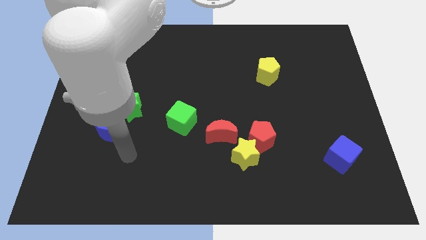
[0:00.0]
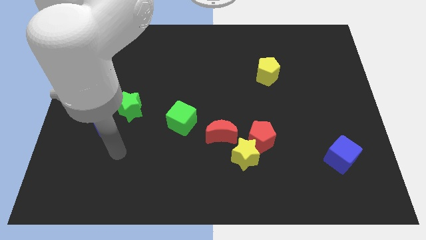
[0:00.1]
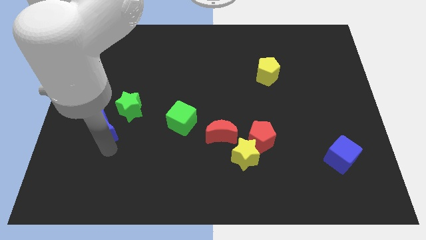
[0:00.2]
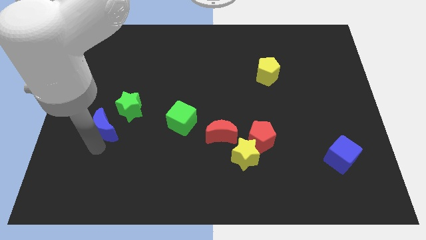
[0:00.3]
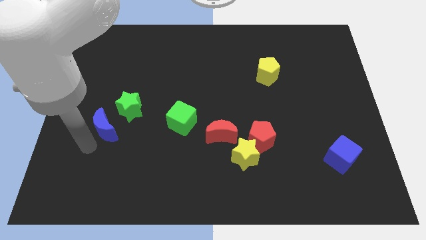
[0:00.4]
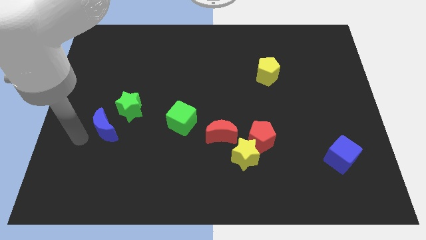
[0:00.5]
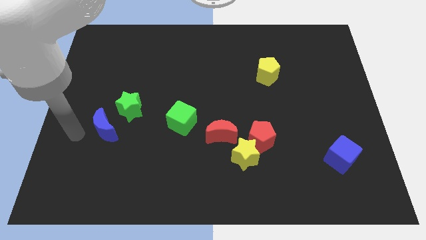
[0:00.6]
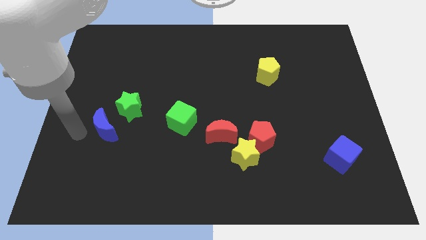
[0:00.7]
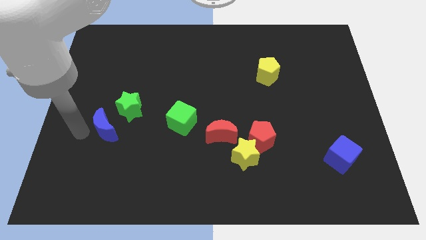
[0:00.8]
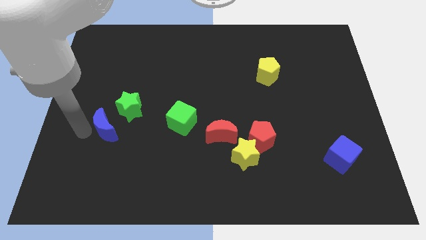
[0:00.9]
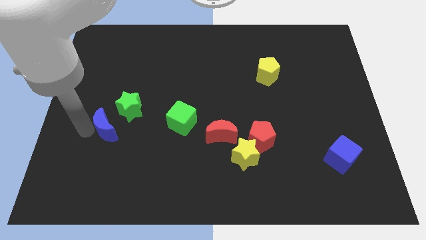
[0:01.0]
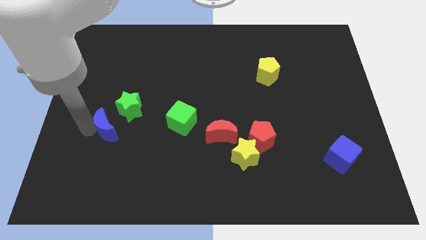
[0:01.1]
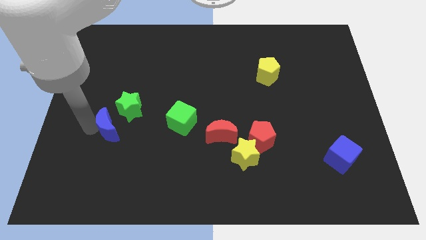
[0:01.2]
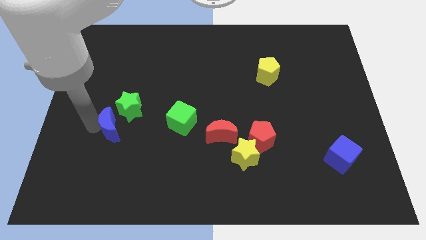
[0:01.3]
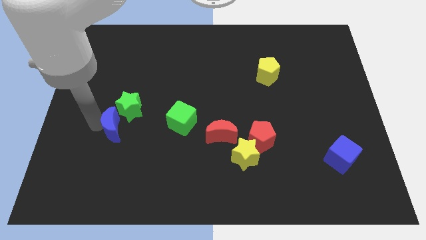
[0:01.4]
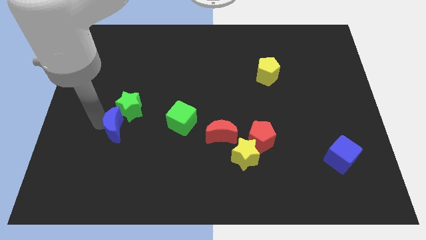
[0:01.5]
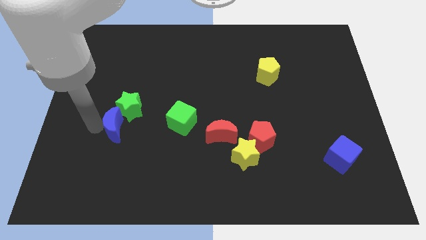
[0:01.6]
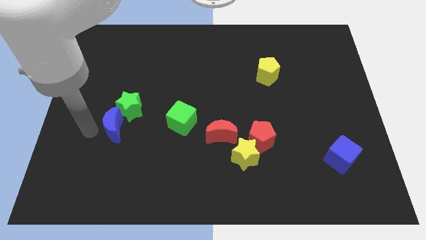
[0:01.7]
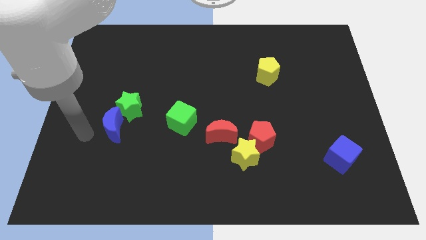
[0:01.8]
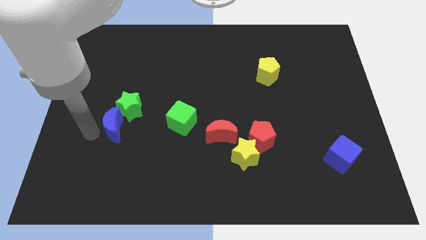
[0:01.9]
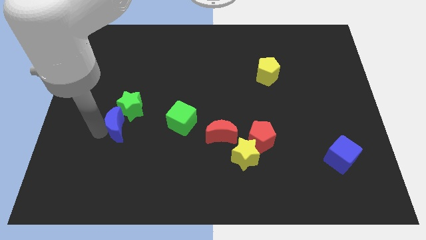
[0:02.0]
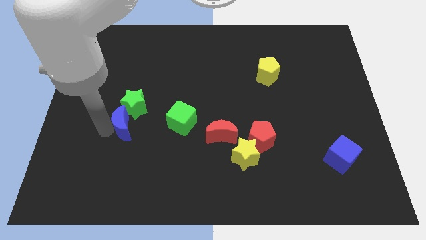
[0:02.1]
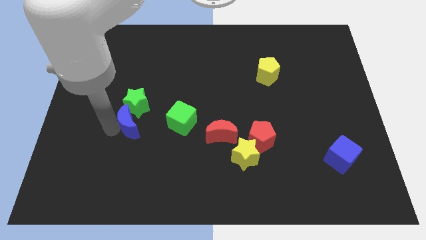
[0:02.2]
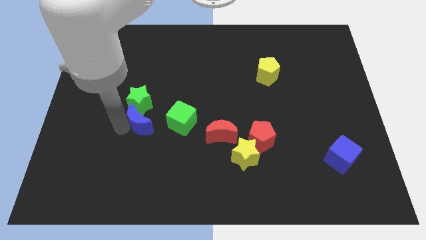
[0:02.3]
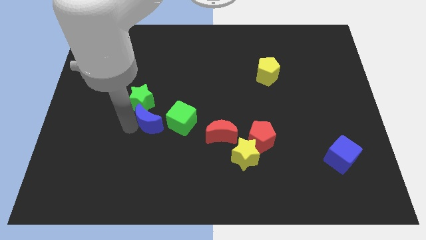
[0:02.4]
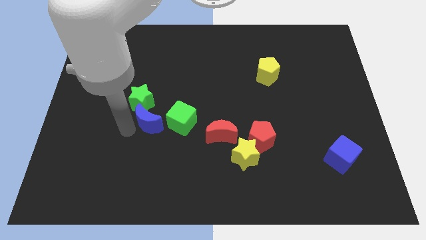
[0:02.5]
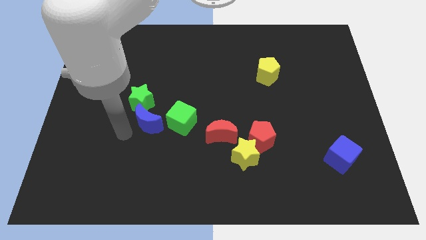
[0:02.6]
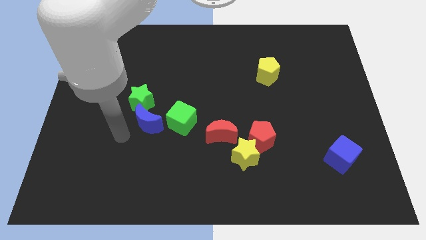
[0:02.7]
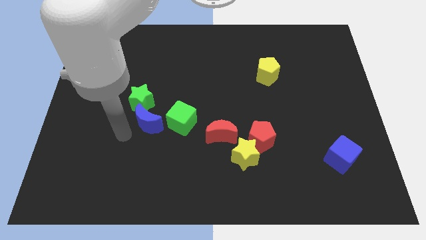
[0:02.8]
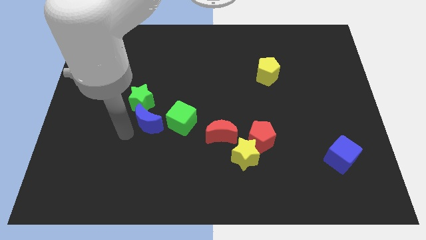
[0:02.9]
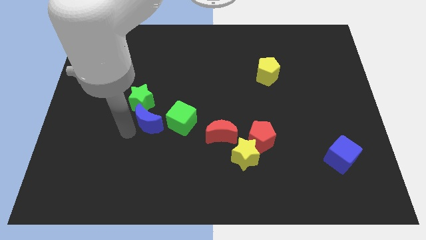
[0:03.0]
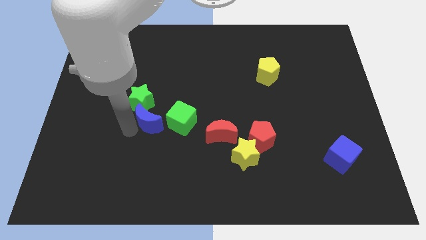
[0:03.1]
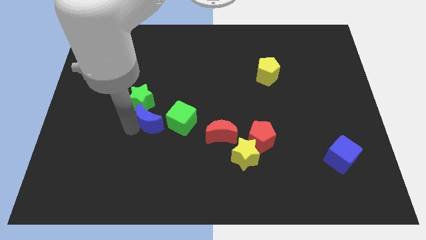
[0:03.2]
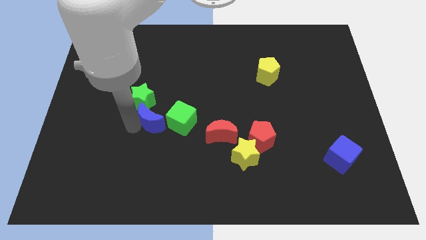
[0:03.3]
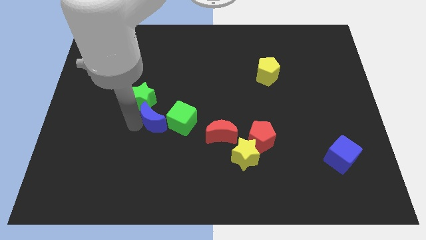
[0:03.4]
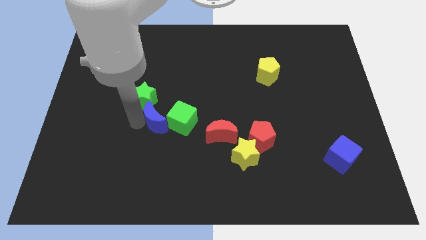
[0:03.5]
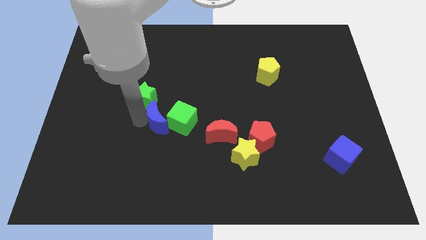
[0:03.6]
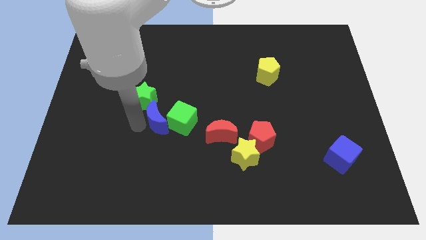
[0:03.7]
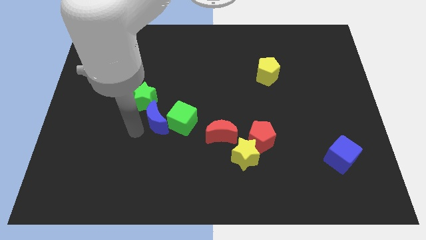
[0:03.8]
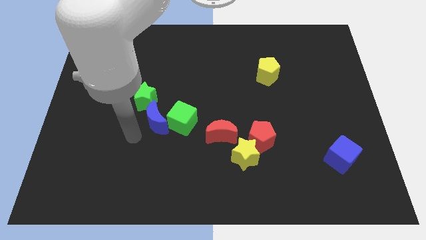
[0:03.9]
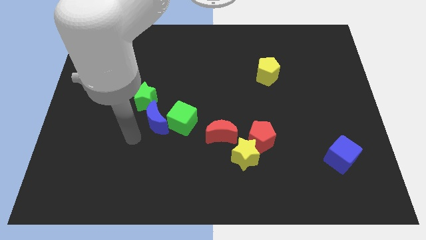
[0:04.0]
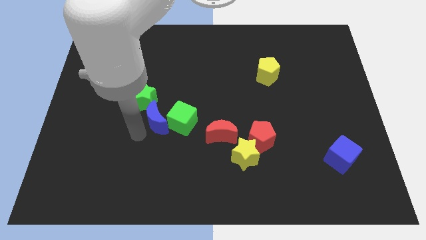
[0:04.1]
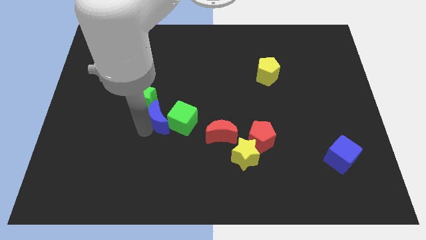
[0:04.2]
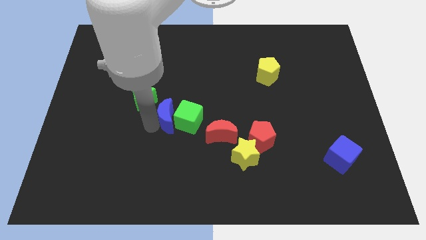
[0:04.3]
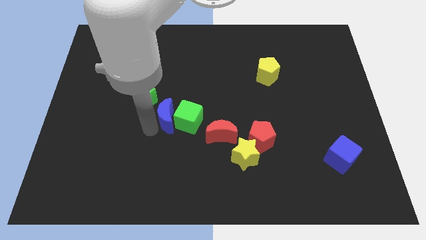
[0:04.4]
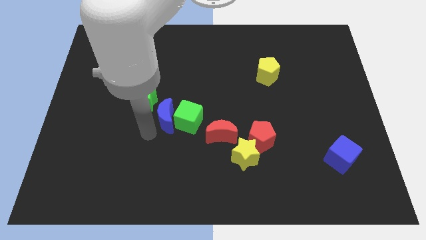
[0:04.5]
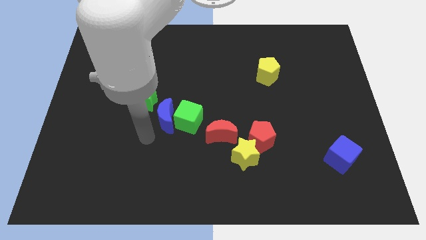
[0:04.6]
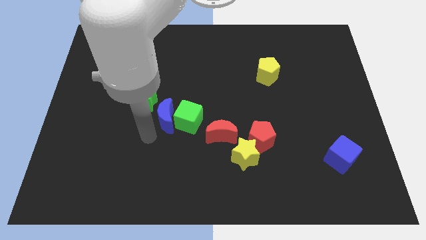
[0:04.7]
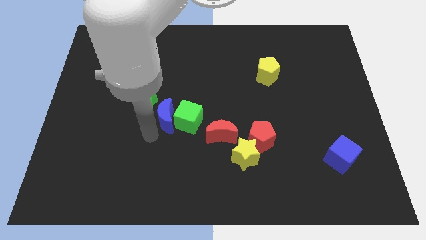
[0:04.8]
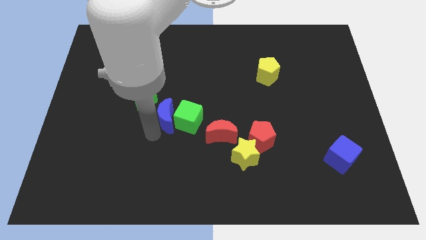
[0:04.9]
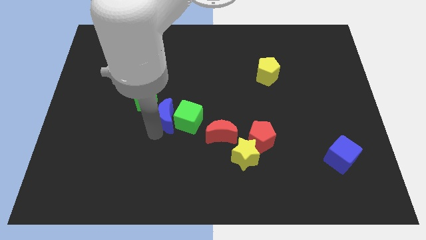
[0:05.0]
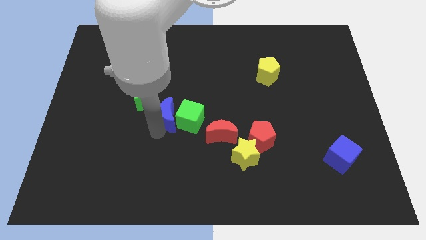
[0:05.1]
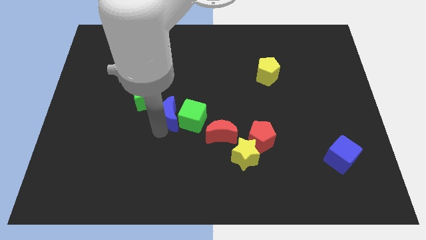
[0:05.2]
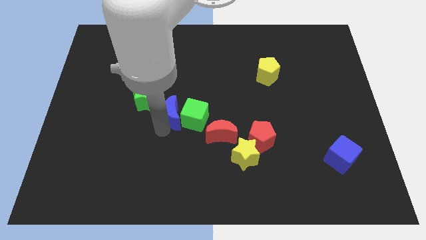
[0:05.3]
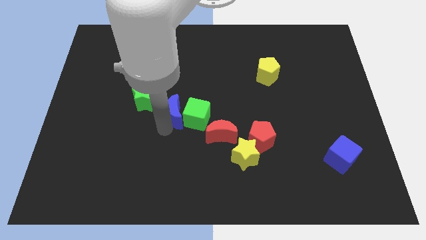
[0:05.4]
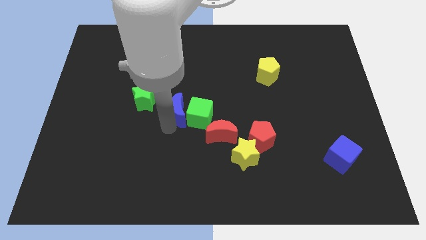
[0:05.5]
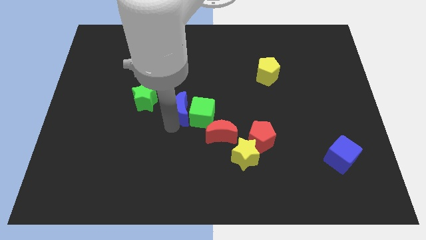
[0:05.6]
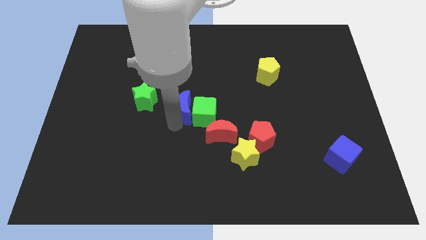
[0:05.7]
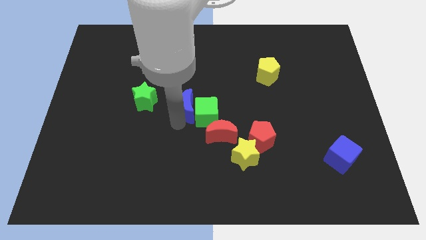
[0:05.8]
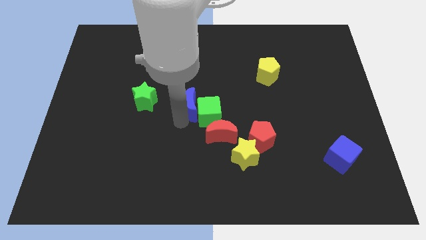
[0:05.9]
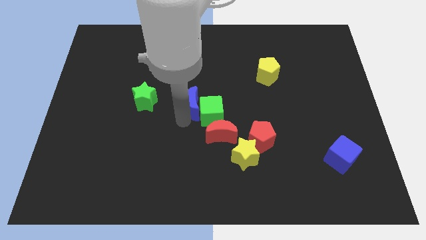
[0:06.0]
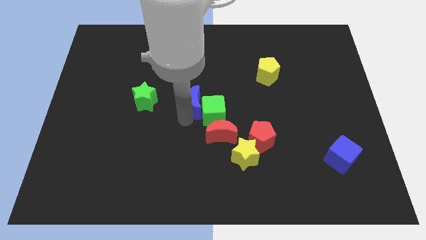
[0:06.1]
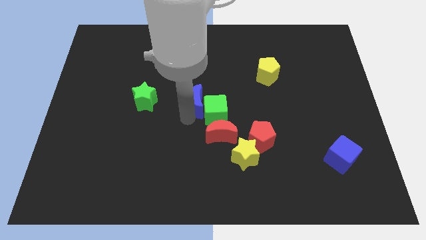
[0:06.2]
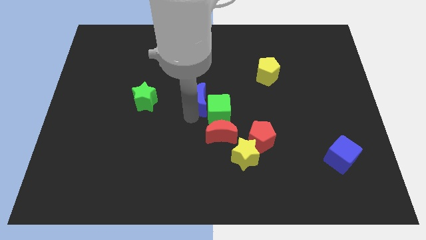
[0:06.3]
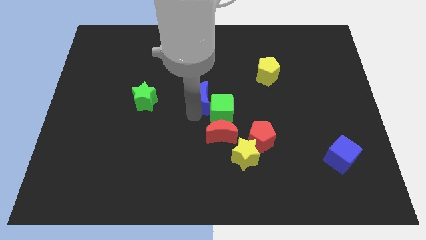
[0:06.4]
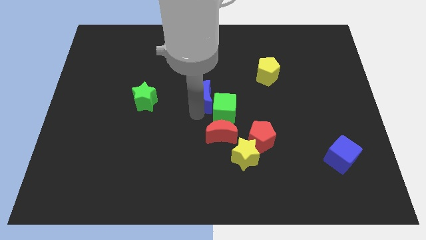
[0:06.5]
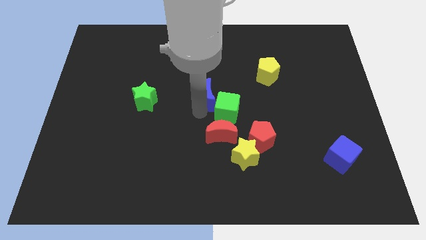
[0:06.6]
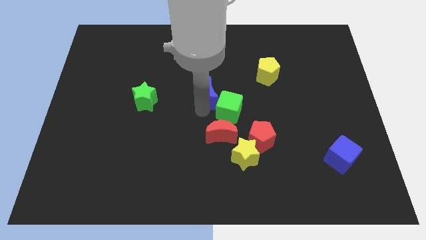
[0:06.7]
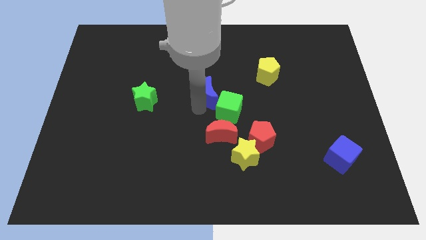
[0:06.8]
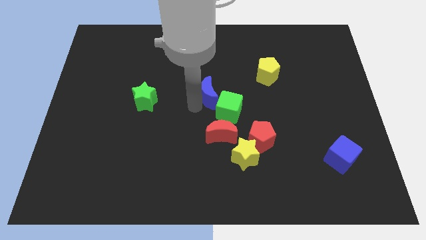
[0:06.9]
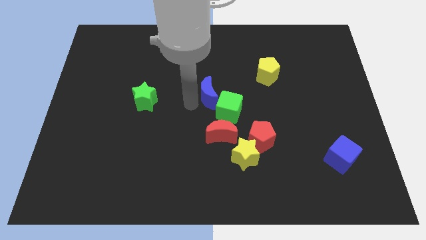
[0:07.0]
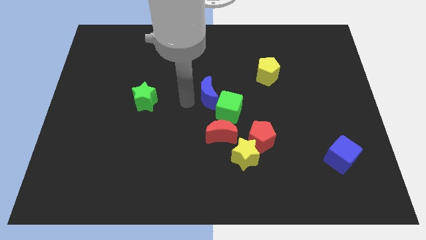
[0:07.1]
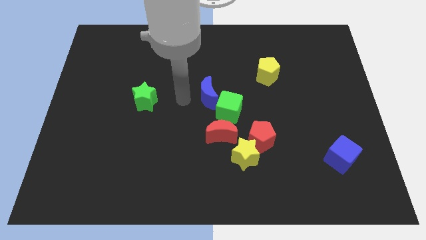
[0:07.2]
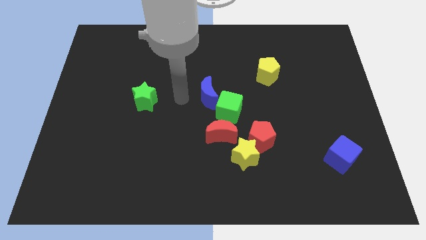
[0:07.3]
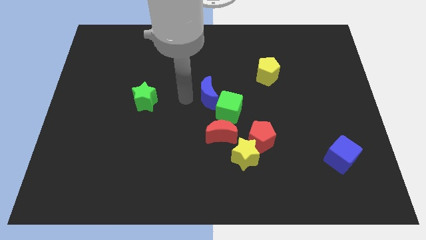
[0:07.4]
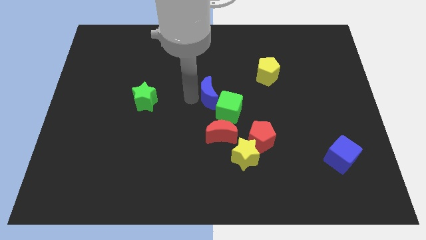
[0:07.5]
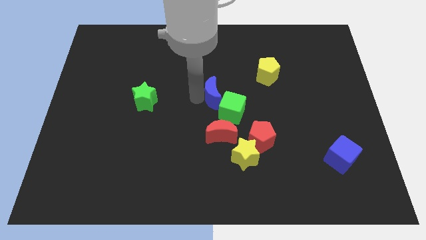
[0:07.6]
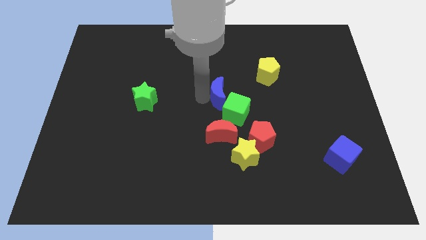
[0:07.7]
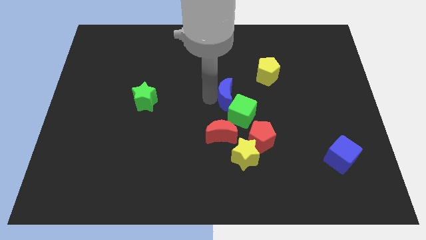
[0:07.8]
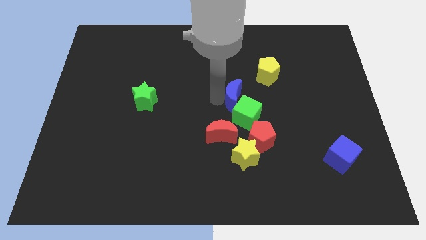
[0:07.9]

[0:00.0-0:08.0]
slide the blue moon diagonally down and to the left of the yellow pentagon
